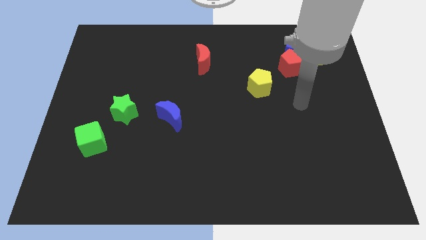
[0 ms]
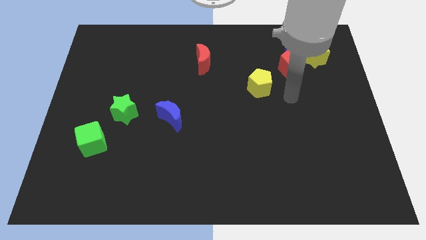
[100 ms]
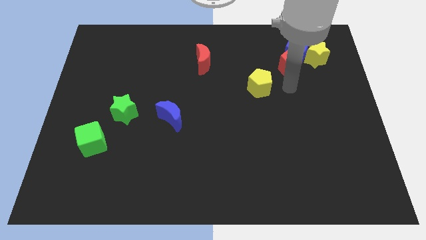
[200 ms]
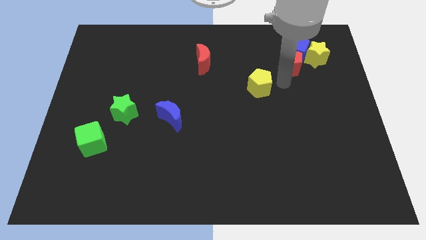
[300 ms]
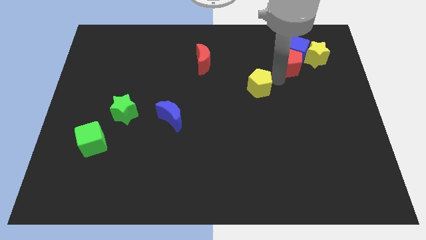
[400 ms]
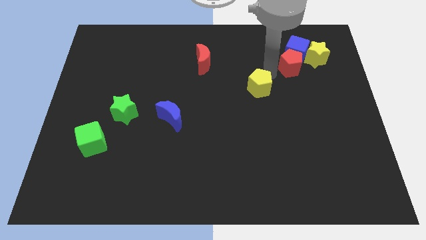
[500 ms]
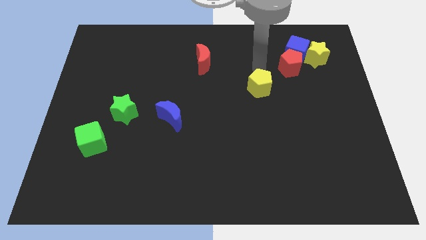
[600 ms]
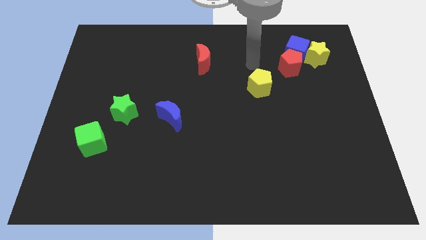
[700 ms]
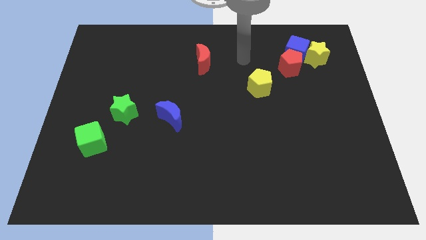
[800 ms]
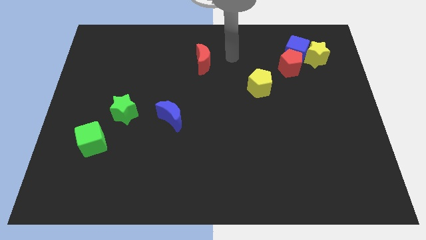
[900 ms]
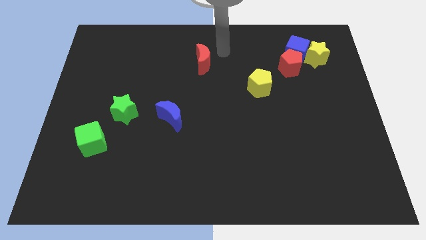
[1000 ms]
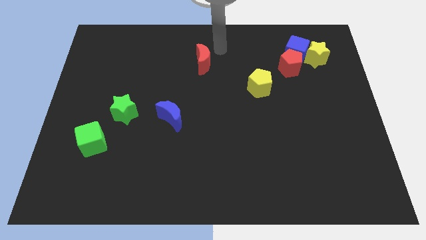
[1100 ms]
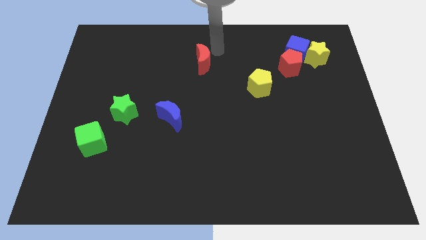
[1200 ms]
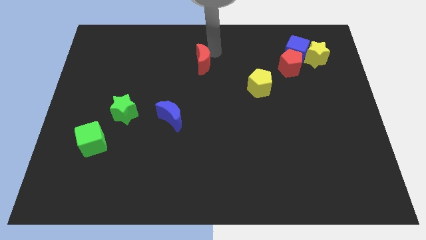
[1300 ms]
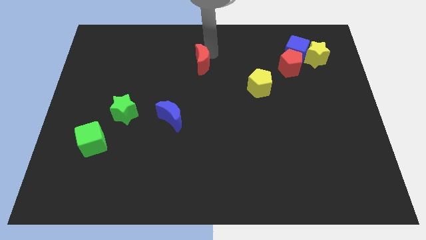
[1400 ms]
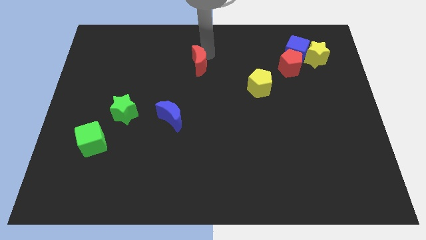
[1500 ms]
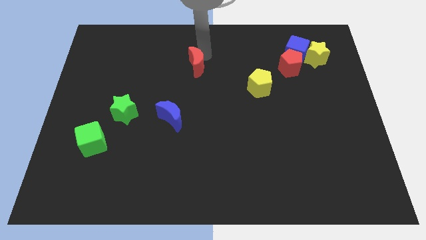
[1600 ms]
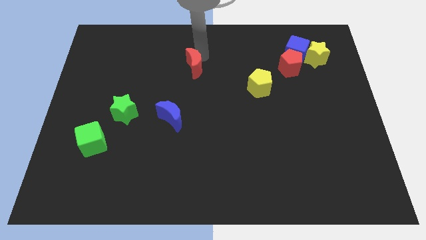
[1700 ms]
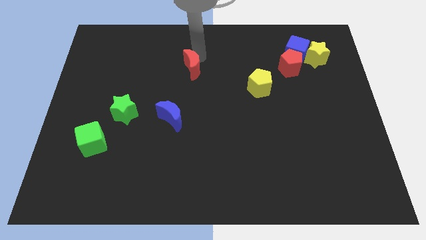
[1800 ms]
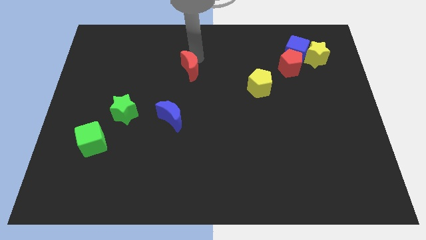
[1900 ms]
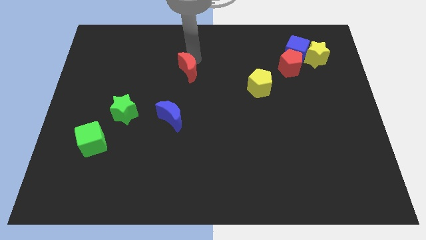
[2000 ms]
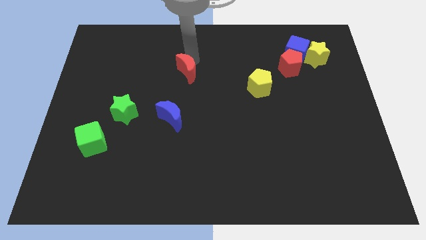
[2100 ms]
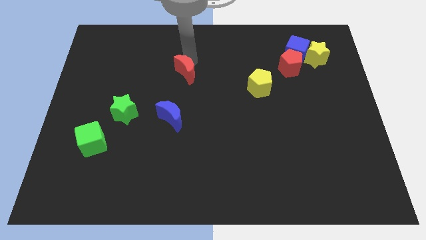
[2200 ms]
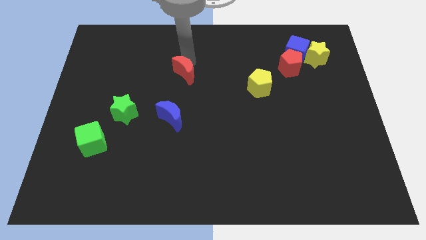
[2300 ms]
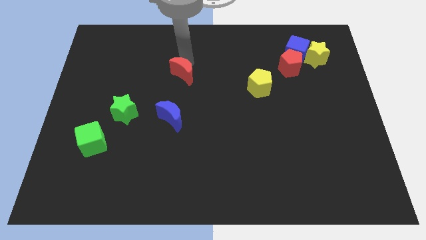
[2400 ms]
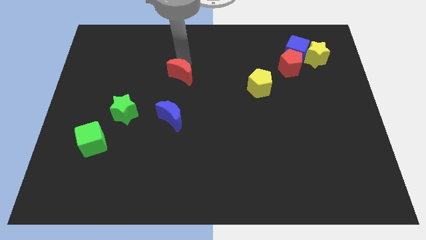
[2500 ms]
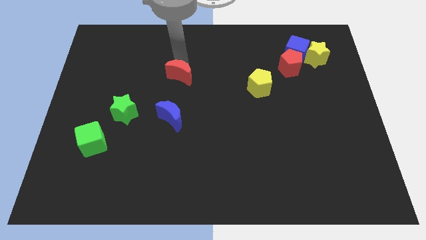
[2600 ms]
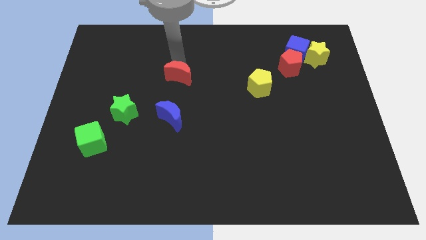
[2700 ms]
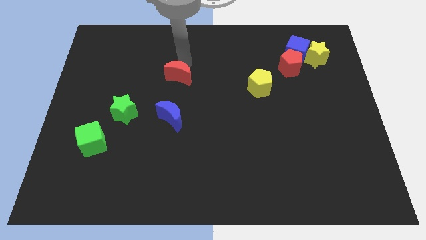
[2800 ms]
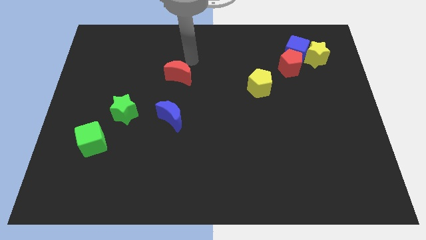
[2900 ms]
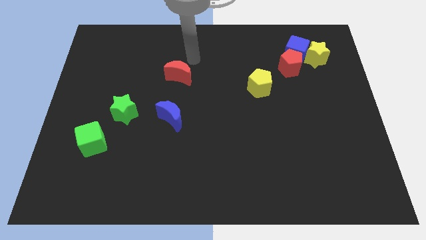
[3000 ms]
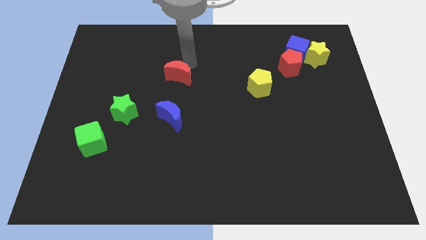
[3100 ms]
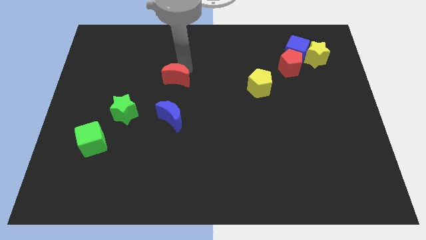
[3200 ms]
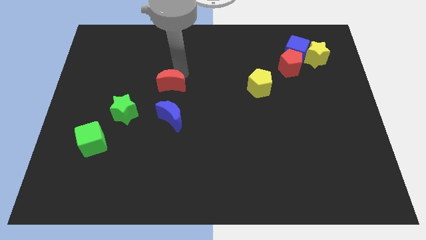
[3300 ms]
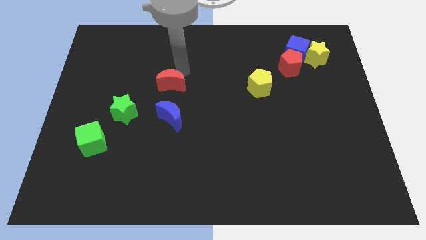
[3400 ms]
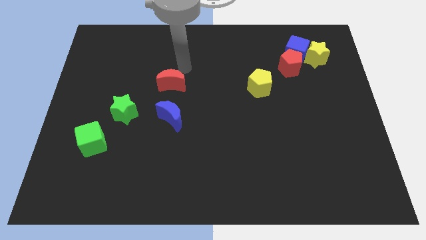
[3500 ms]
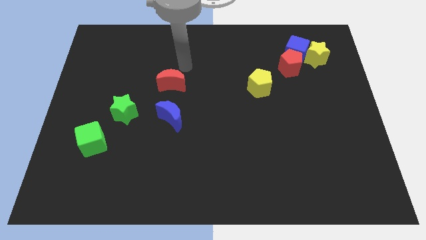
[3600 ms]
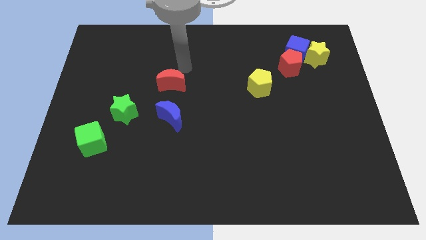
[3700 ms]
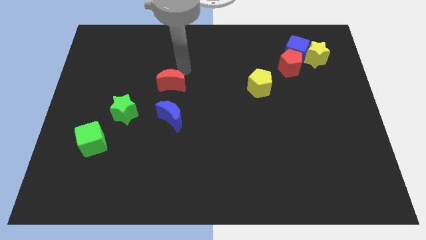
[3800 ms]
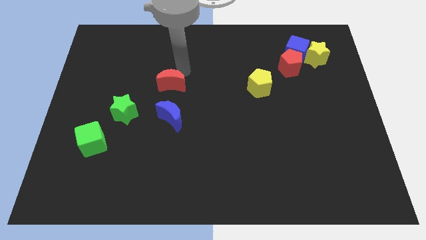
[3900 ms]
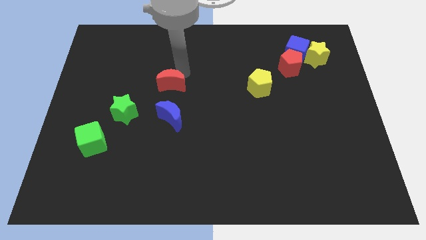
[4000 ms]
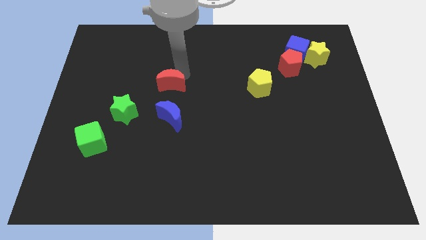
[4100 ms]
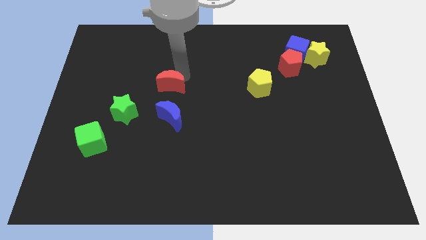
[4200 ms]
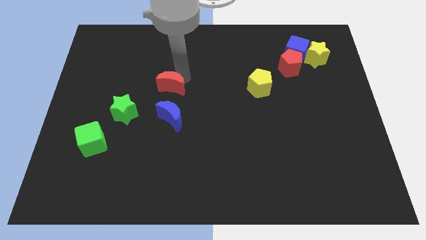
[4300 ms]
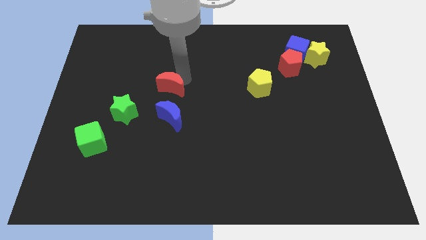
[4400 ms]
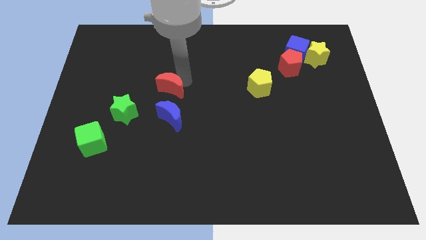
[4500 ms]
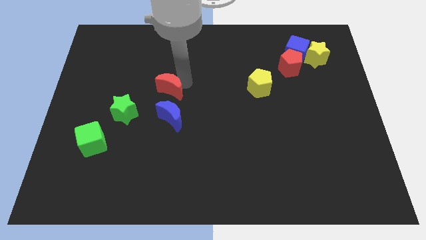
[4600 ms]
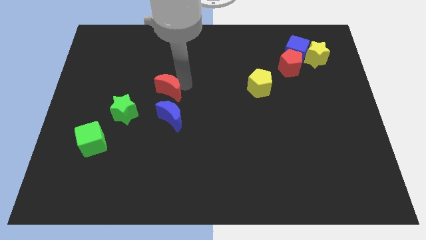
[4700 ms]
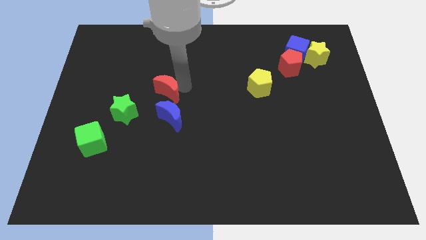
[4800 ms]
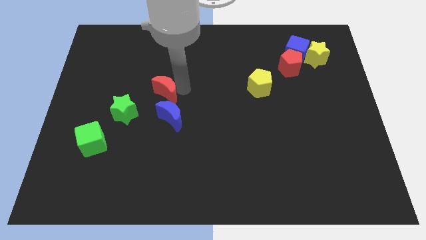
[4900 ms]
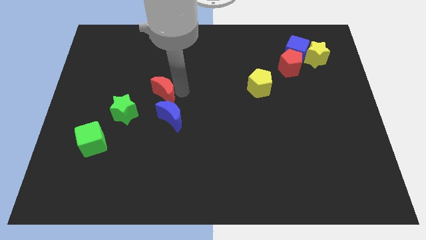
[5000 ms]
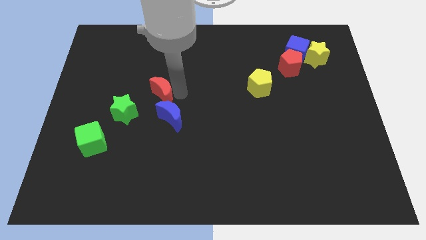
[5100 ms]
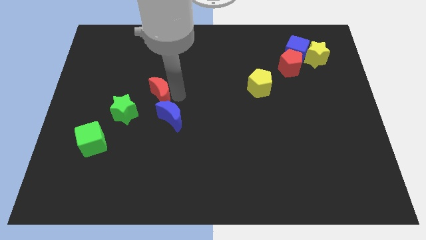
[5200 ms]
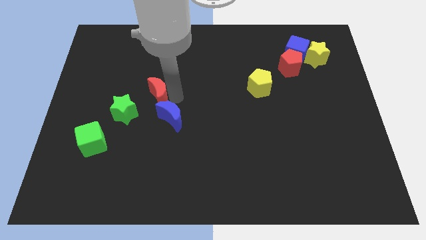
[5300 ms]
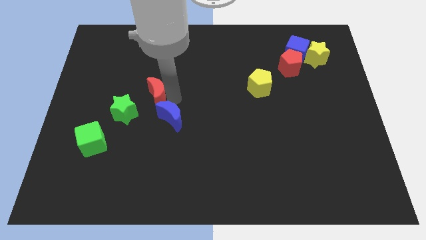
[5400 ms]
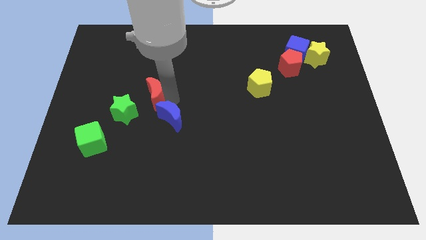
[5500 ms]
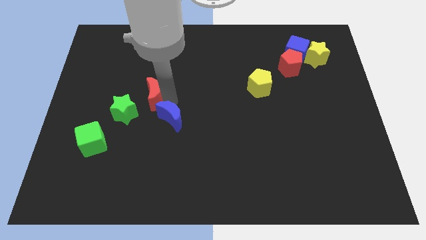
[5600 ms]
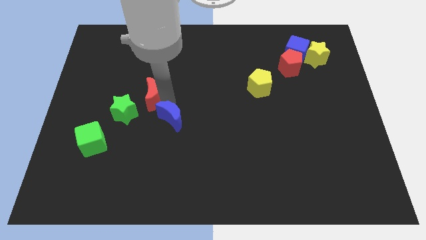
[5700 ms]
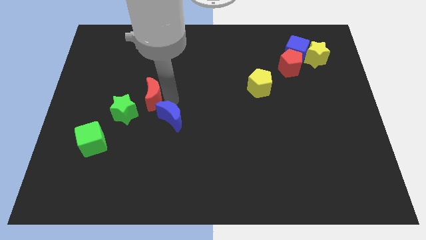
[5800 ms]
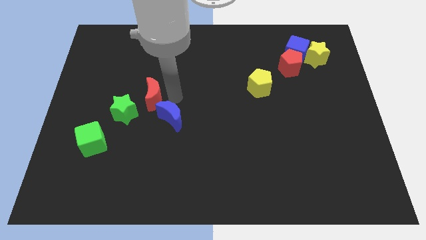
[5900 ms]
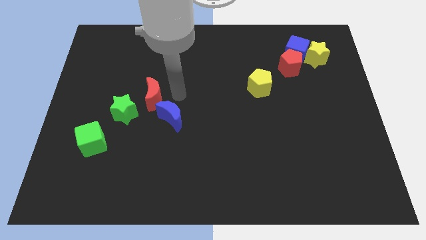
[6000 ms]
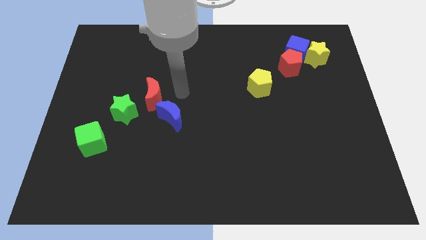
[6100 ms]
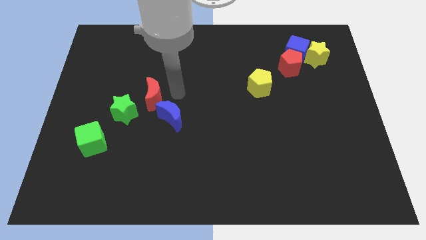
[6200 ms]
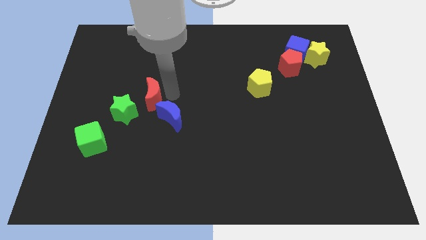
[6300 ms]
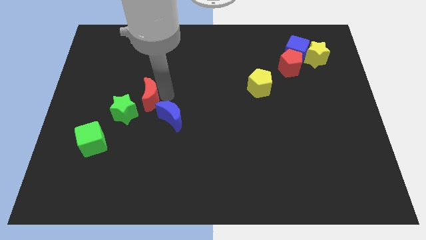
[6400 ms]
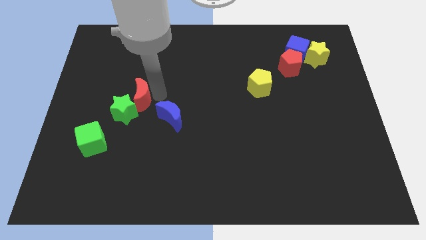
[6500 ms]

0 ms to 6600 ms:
move the red moon to the green star

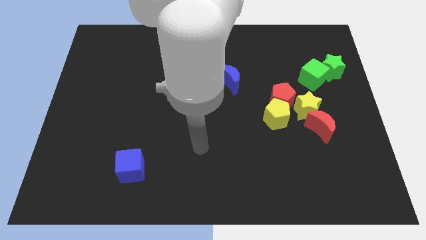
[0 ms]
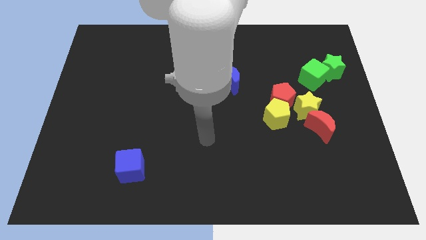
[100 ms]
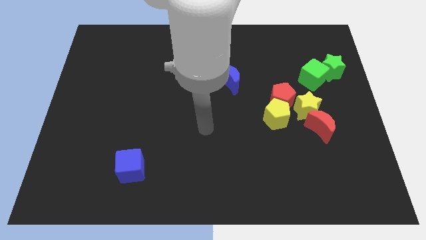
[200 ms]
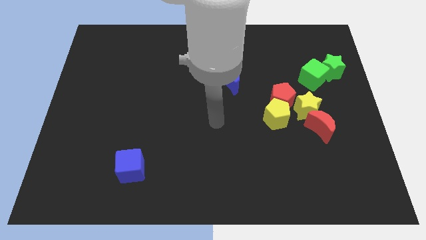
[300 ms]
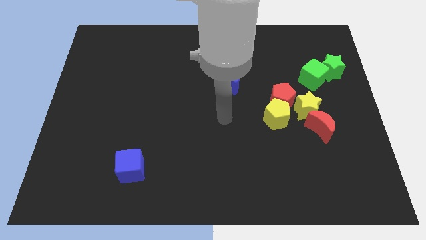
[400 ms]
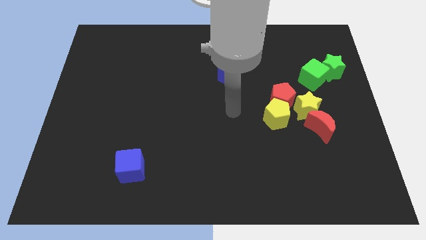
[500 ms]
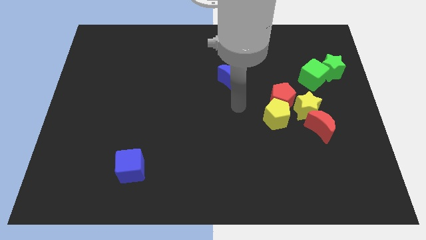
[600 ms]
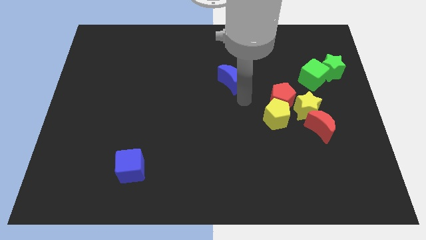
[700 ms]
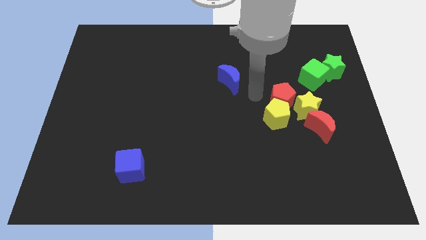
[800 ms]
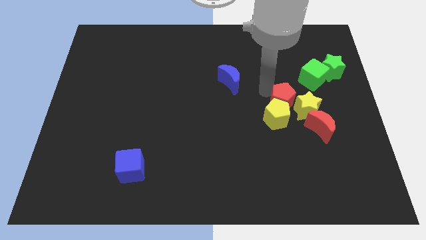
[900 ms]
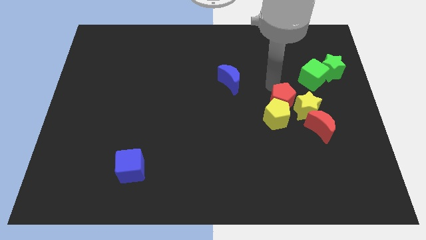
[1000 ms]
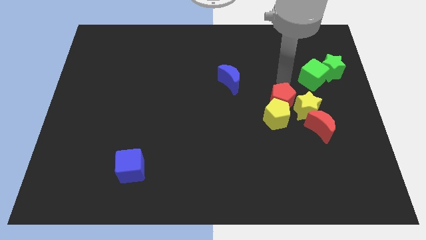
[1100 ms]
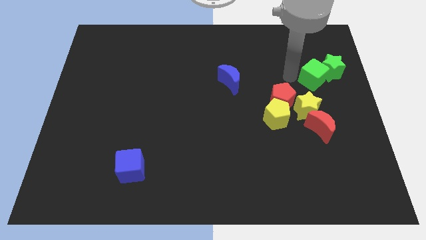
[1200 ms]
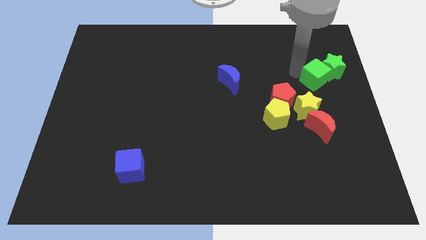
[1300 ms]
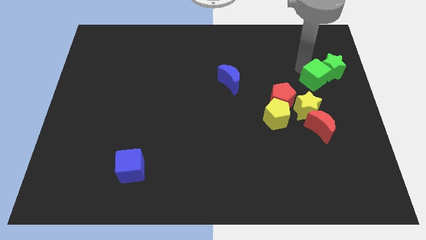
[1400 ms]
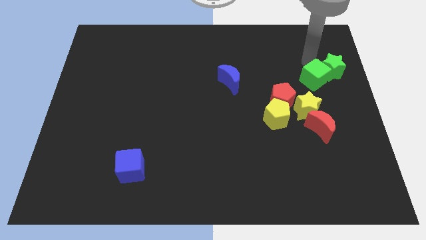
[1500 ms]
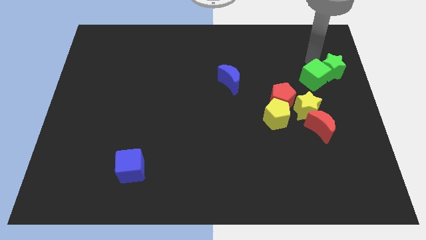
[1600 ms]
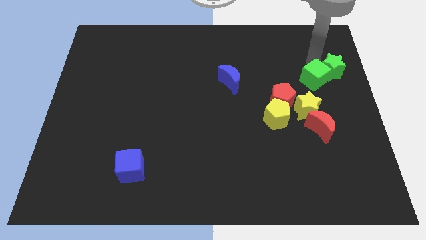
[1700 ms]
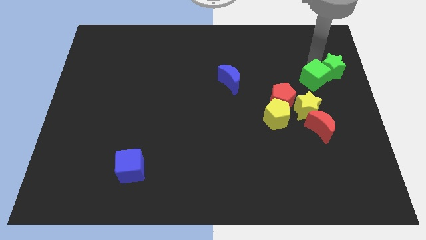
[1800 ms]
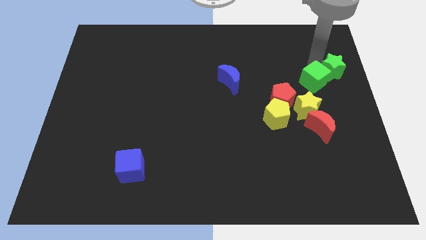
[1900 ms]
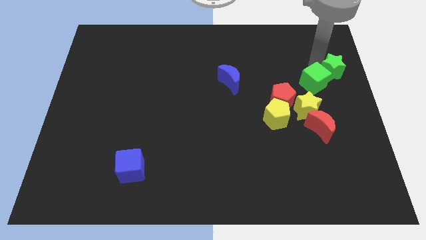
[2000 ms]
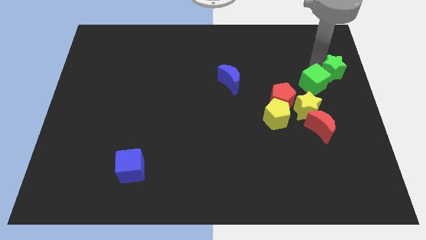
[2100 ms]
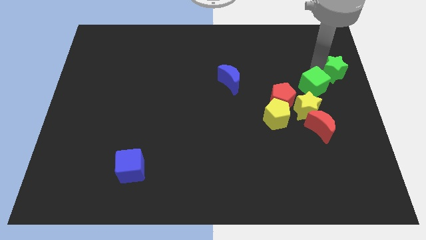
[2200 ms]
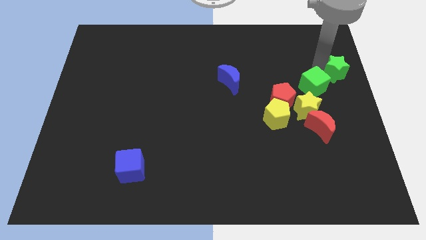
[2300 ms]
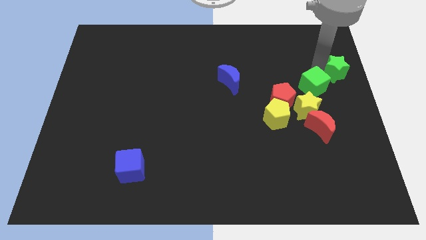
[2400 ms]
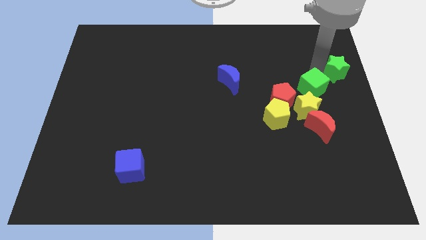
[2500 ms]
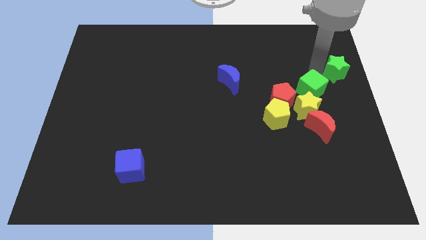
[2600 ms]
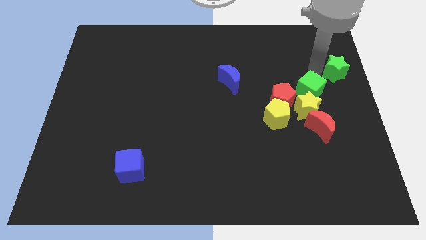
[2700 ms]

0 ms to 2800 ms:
move the green cube close to the yellow star
